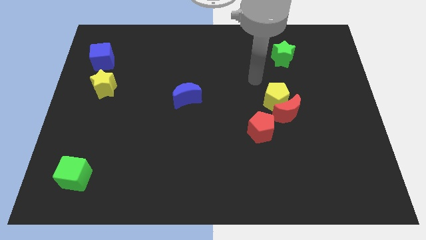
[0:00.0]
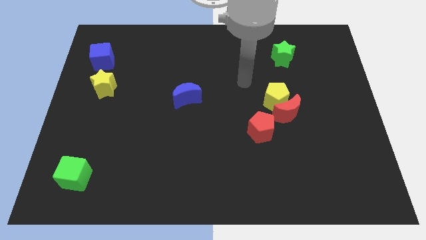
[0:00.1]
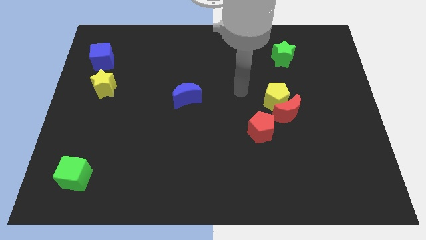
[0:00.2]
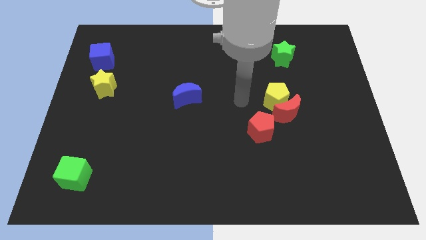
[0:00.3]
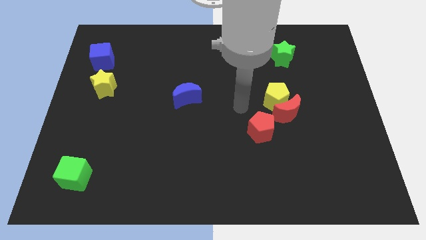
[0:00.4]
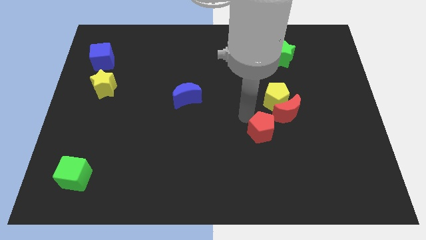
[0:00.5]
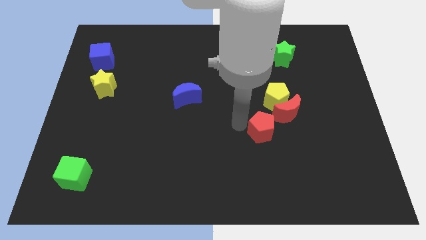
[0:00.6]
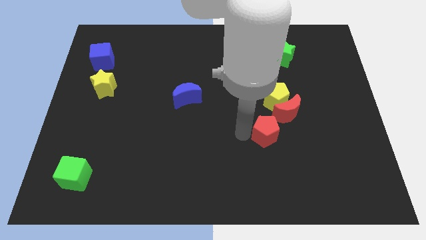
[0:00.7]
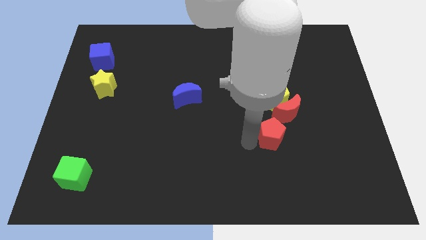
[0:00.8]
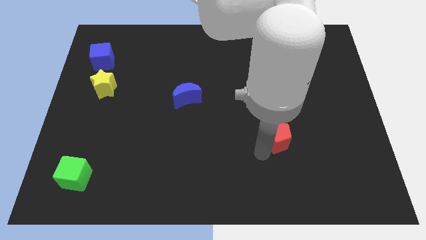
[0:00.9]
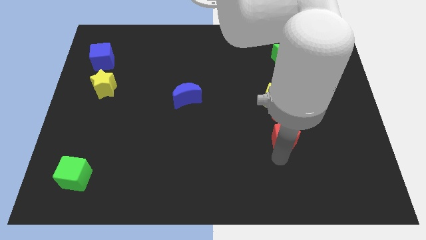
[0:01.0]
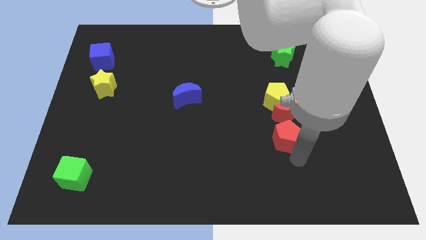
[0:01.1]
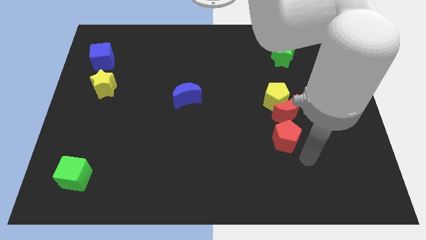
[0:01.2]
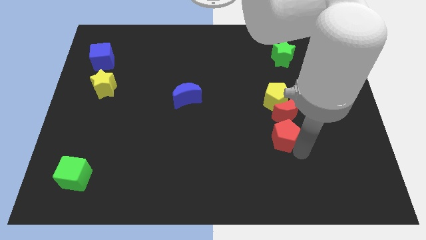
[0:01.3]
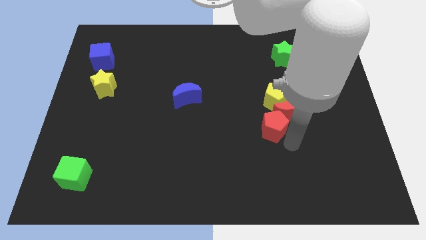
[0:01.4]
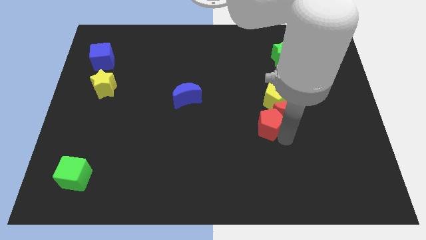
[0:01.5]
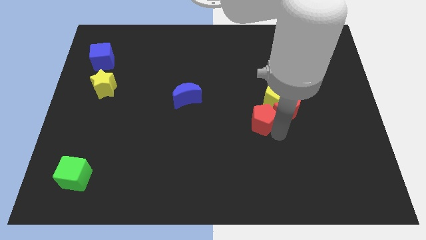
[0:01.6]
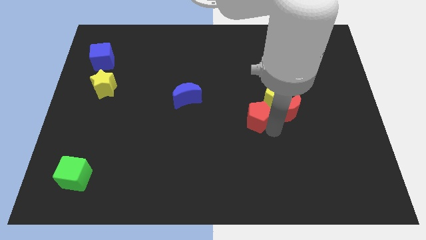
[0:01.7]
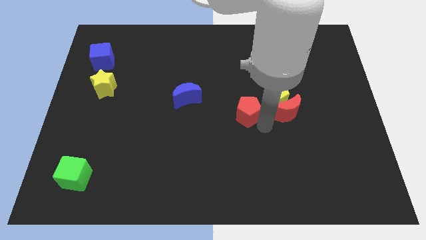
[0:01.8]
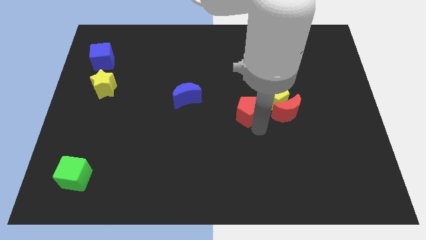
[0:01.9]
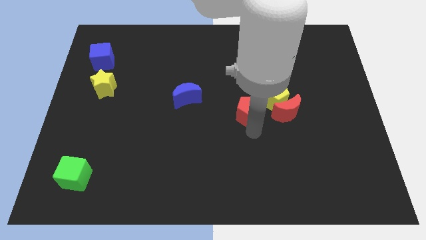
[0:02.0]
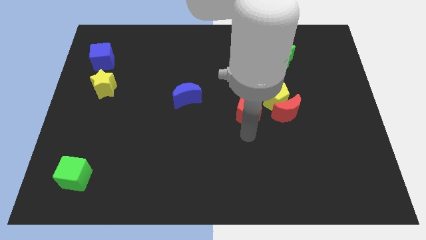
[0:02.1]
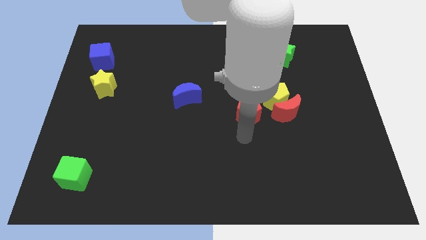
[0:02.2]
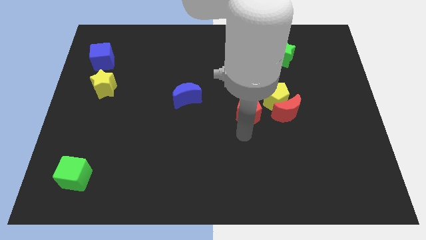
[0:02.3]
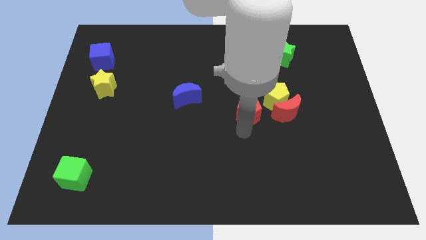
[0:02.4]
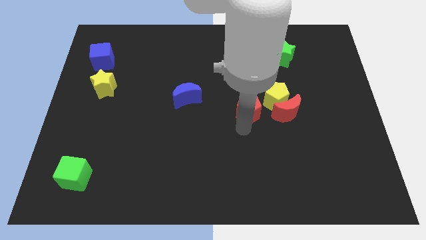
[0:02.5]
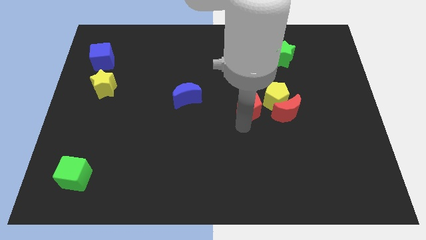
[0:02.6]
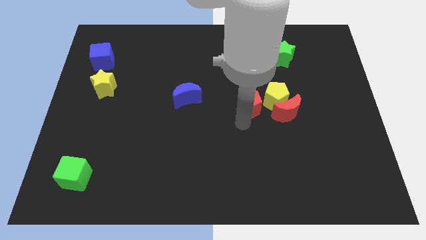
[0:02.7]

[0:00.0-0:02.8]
move the red pentagon upwards a little

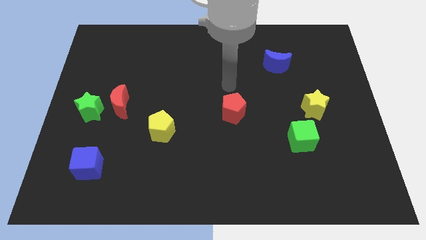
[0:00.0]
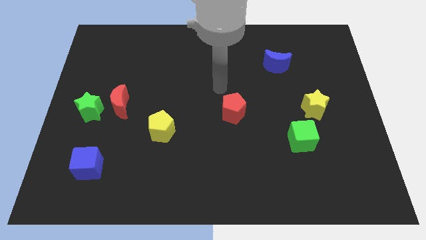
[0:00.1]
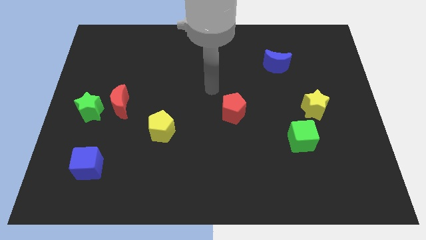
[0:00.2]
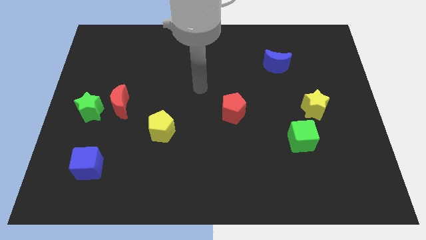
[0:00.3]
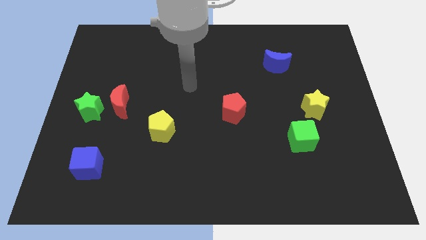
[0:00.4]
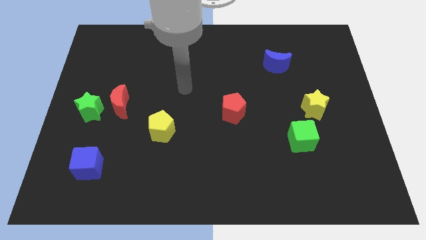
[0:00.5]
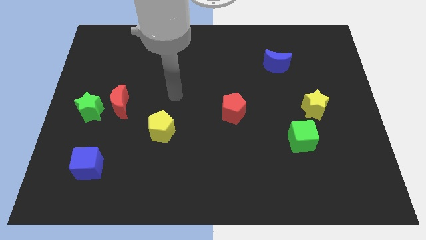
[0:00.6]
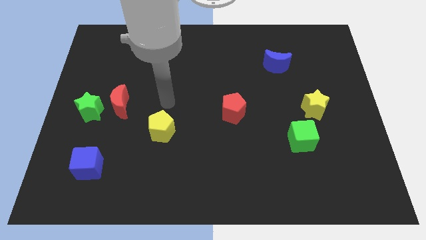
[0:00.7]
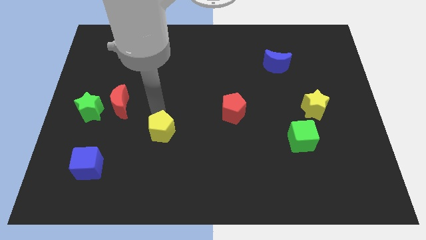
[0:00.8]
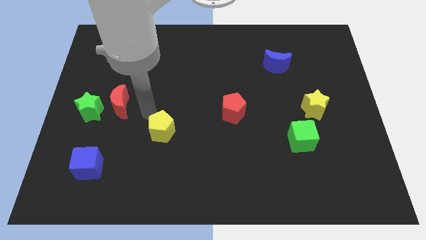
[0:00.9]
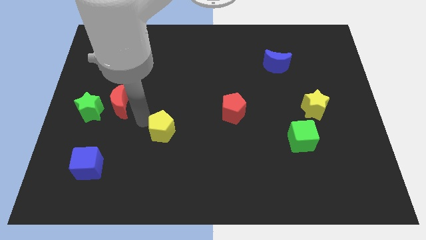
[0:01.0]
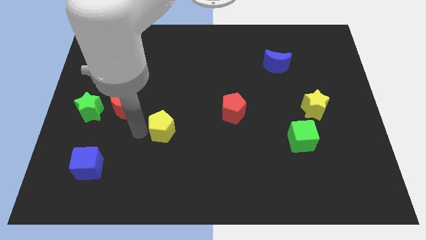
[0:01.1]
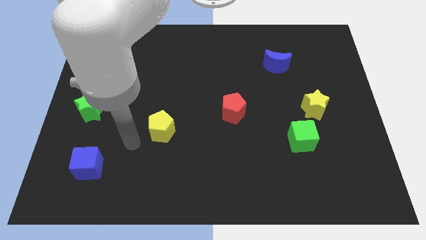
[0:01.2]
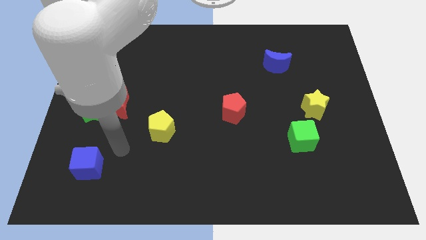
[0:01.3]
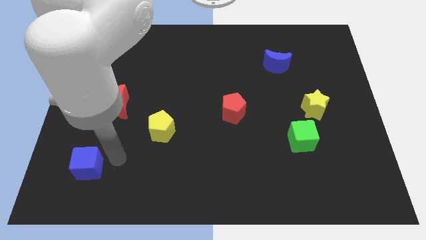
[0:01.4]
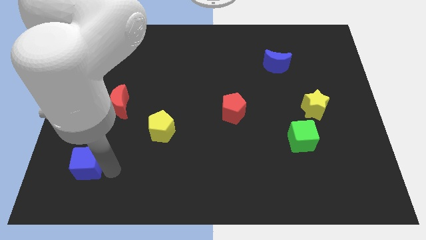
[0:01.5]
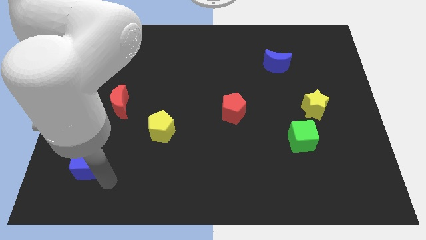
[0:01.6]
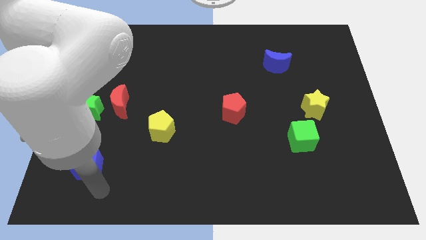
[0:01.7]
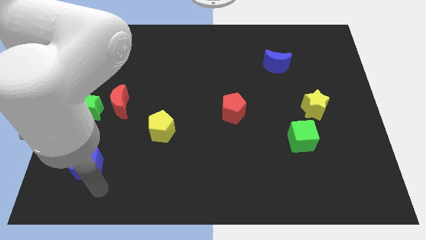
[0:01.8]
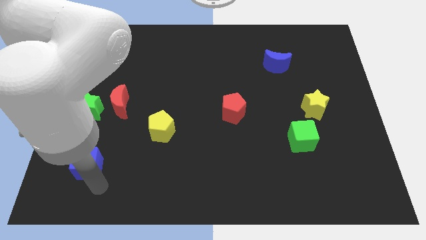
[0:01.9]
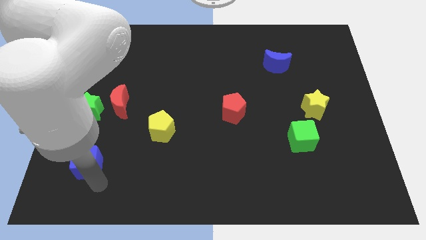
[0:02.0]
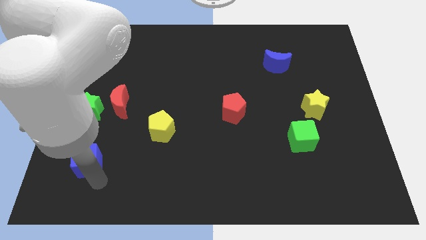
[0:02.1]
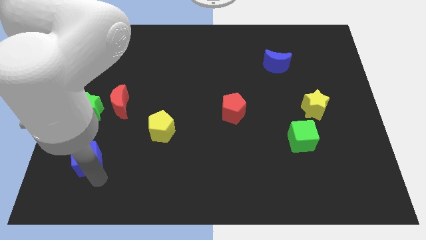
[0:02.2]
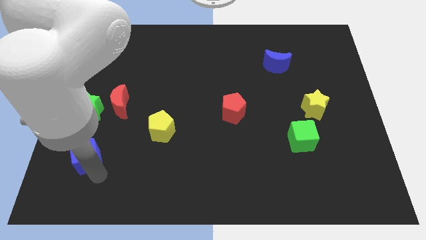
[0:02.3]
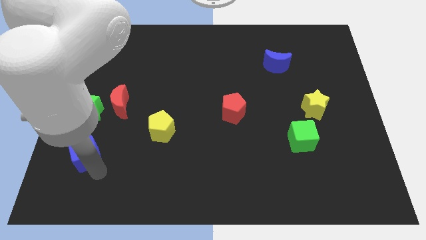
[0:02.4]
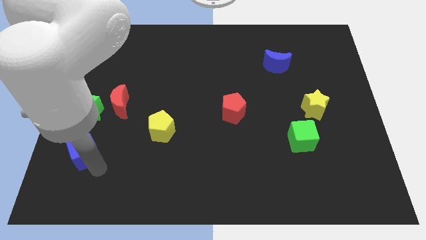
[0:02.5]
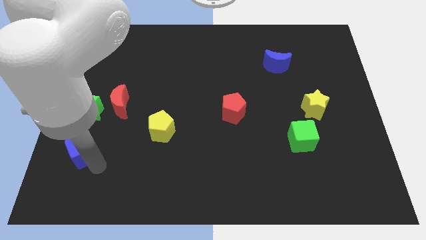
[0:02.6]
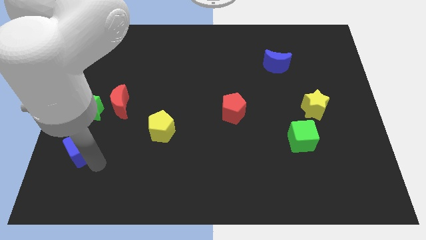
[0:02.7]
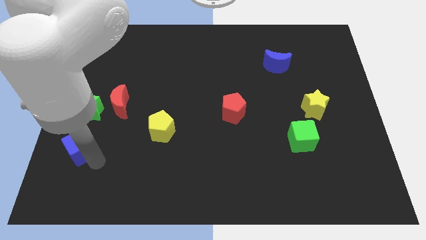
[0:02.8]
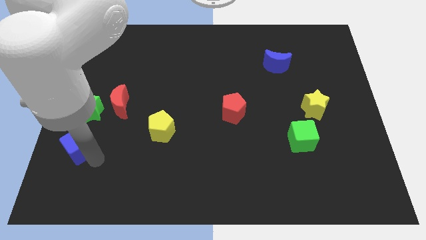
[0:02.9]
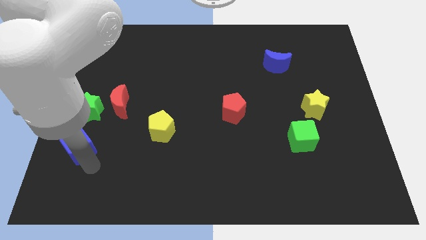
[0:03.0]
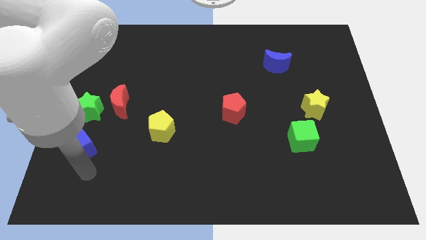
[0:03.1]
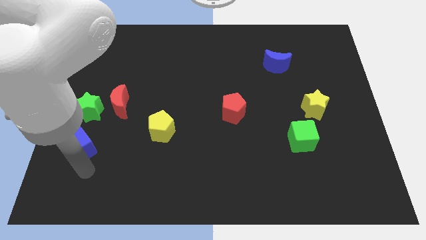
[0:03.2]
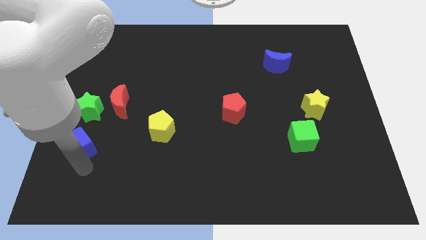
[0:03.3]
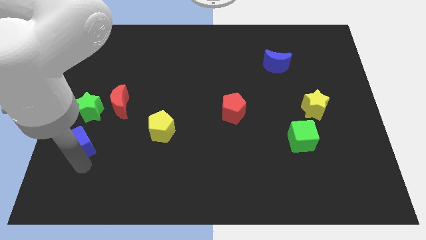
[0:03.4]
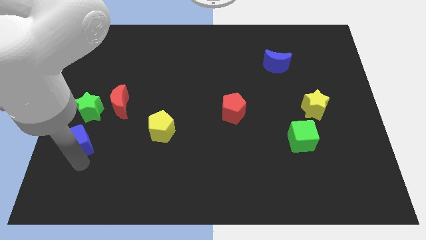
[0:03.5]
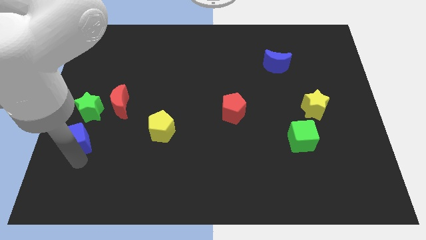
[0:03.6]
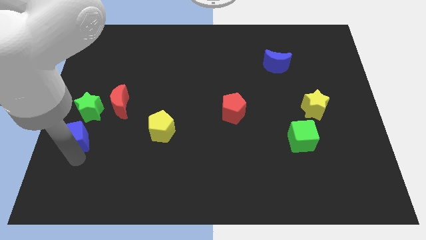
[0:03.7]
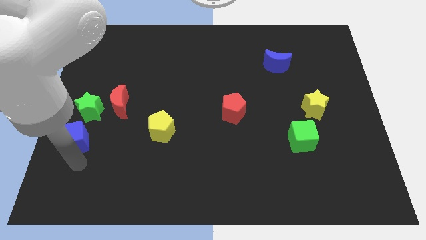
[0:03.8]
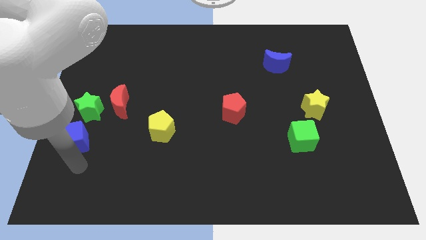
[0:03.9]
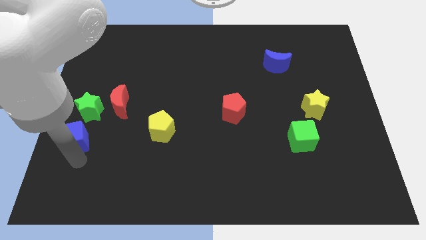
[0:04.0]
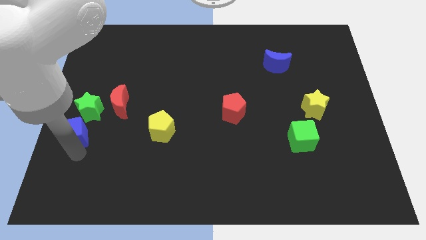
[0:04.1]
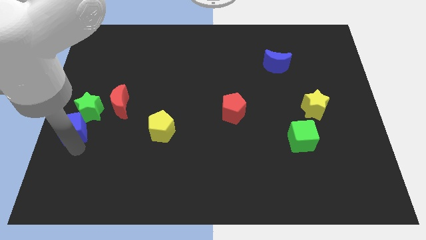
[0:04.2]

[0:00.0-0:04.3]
move the blue cube up a little bit

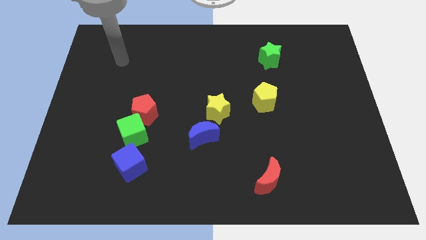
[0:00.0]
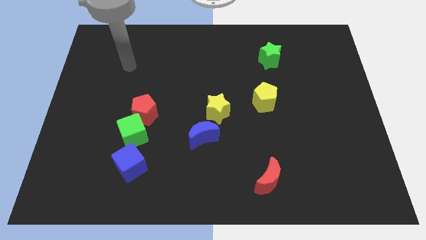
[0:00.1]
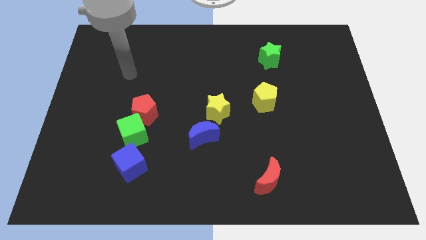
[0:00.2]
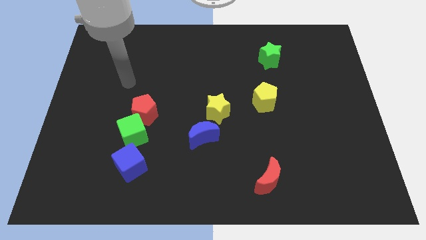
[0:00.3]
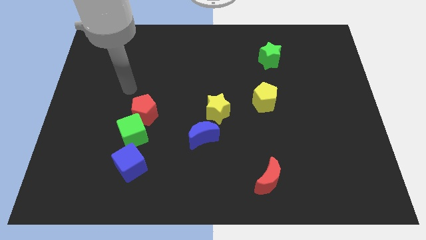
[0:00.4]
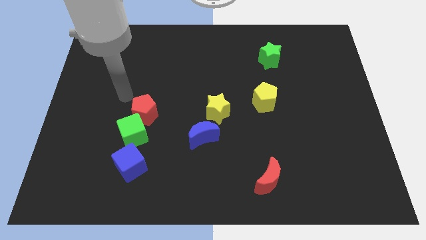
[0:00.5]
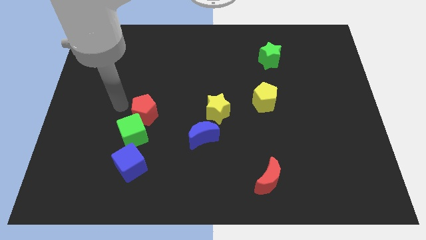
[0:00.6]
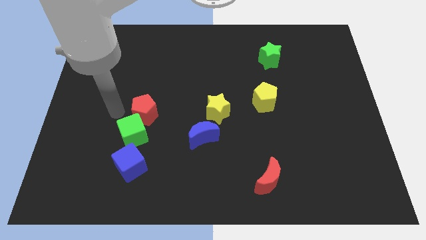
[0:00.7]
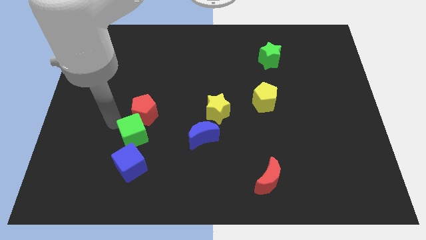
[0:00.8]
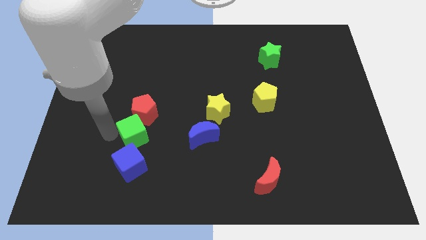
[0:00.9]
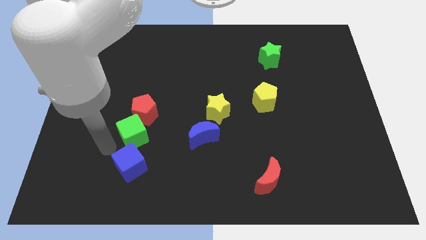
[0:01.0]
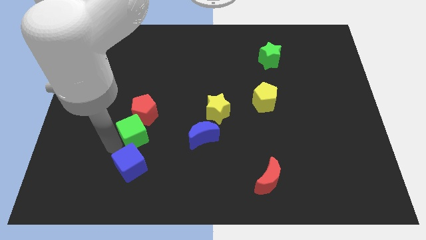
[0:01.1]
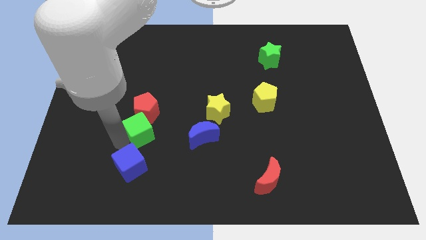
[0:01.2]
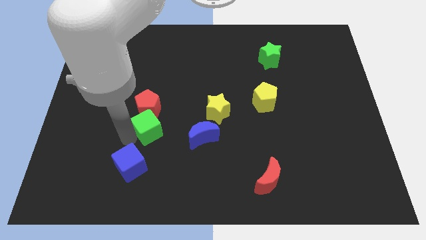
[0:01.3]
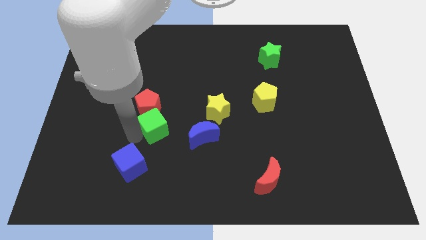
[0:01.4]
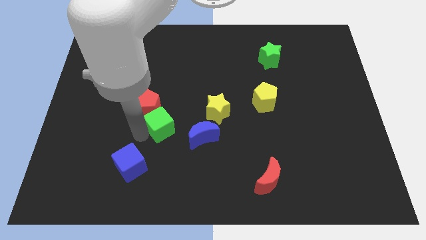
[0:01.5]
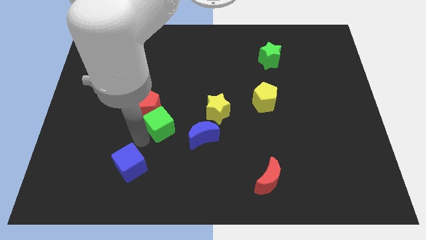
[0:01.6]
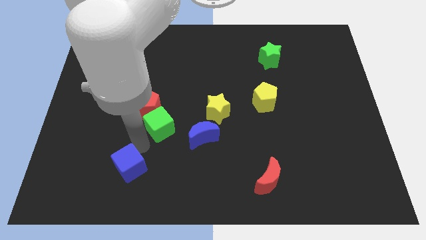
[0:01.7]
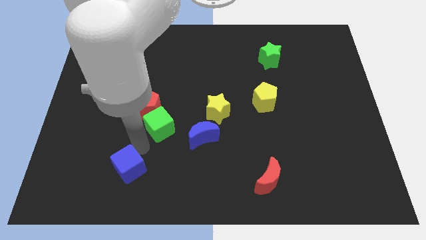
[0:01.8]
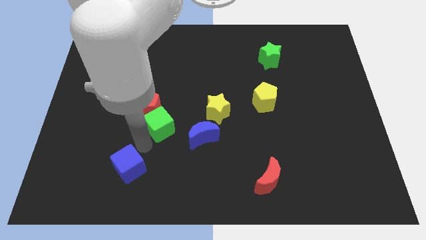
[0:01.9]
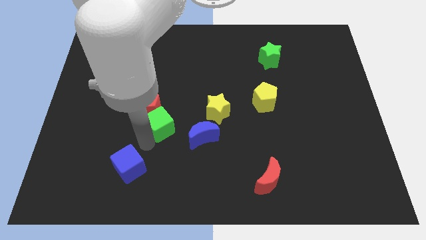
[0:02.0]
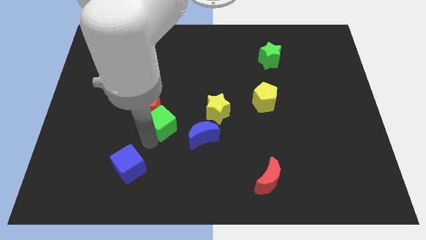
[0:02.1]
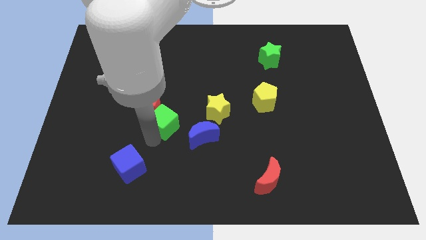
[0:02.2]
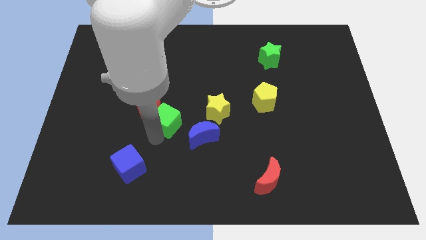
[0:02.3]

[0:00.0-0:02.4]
slide the green cube diagonally upwards and to the right a bit
